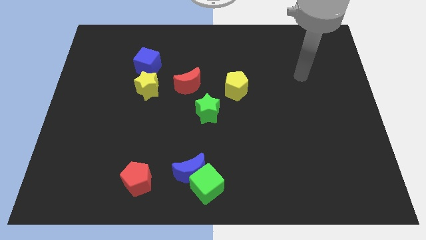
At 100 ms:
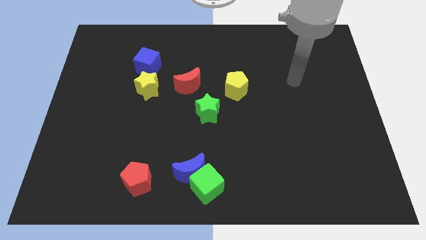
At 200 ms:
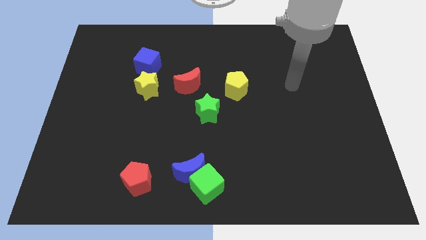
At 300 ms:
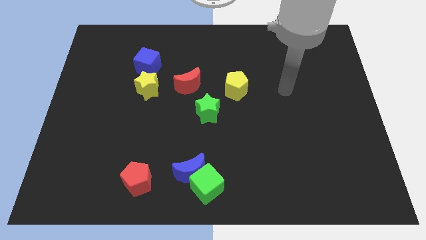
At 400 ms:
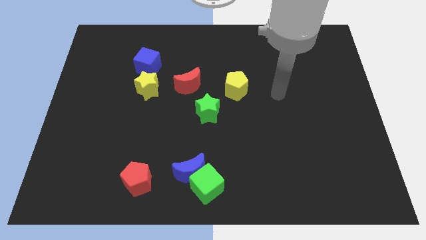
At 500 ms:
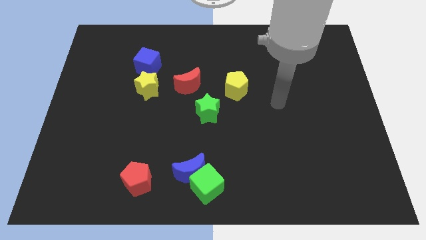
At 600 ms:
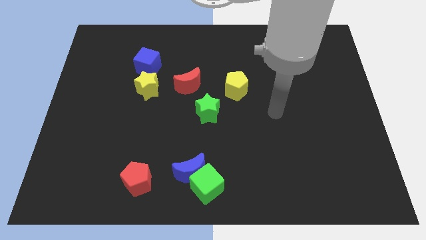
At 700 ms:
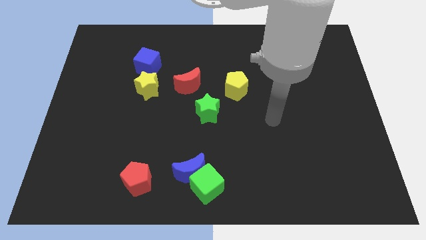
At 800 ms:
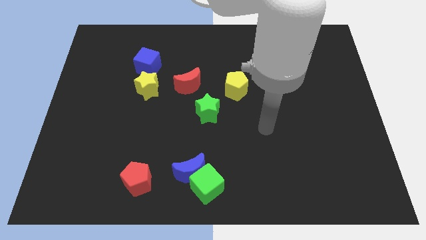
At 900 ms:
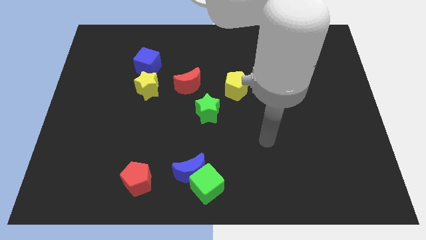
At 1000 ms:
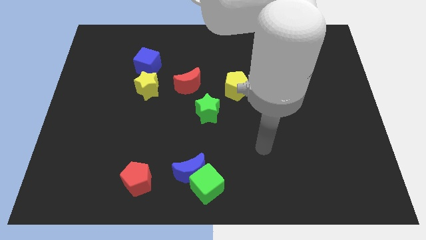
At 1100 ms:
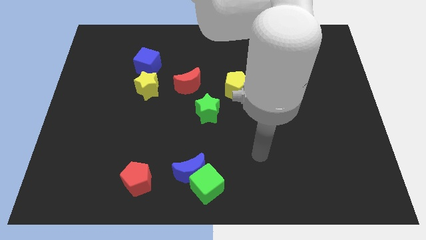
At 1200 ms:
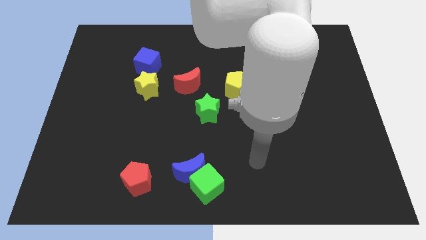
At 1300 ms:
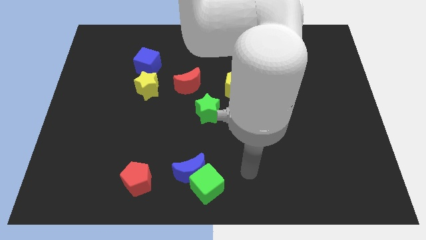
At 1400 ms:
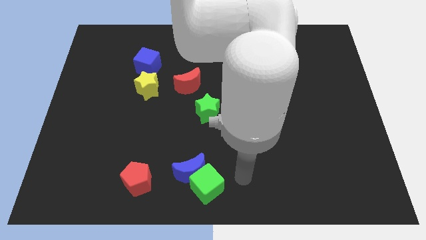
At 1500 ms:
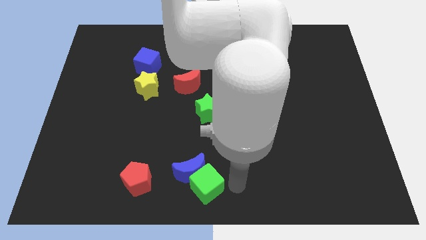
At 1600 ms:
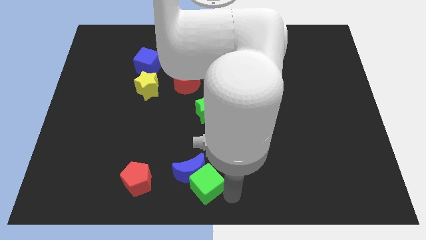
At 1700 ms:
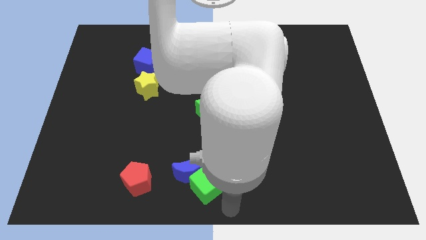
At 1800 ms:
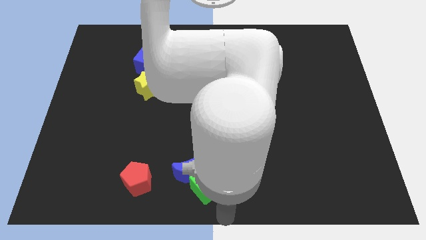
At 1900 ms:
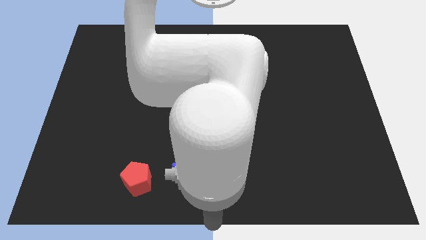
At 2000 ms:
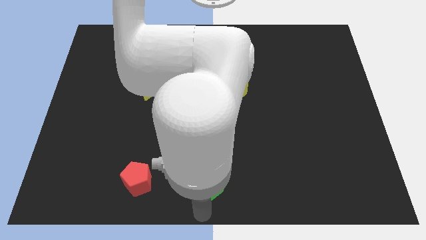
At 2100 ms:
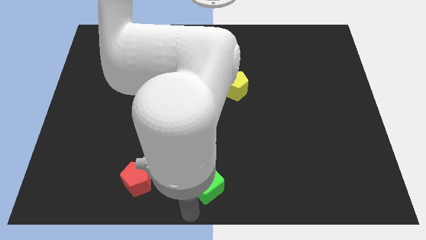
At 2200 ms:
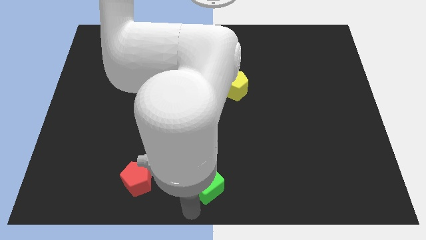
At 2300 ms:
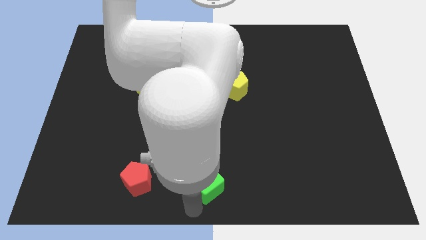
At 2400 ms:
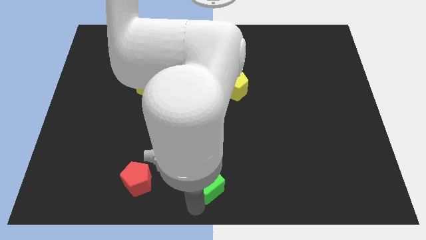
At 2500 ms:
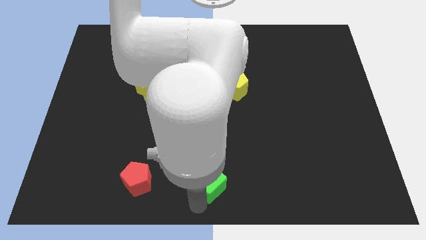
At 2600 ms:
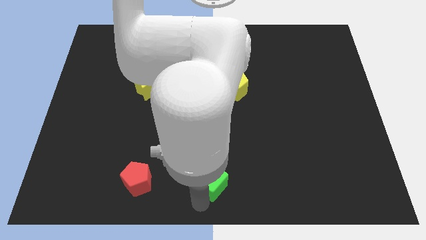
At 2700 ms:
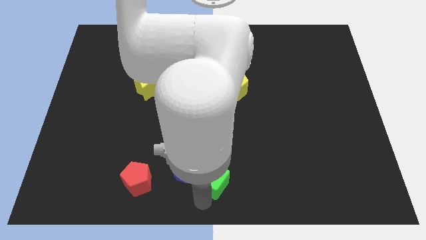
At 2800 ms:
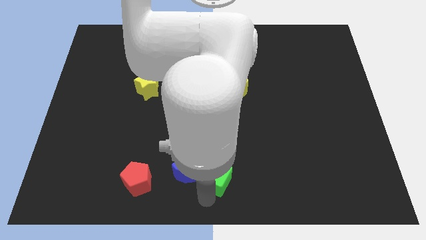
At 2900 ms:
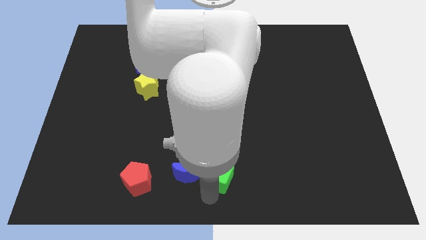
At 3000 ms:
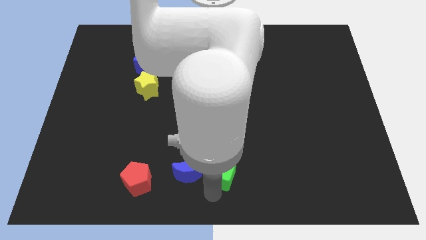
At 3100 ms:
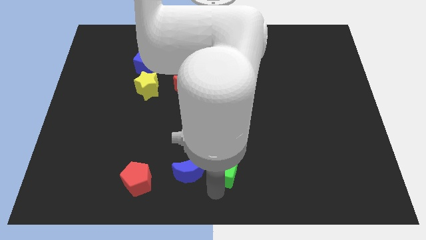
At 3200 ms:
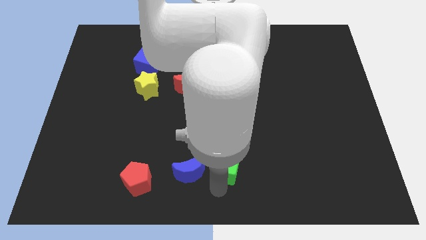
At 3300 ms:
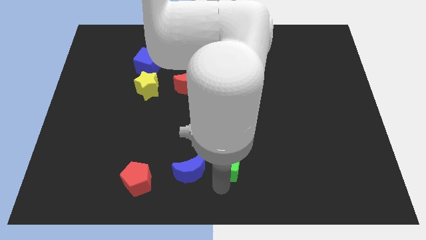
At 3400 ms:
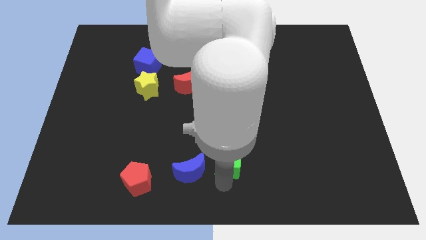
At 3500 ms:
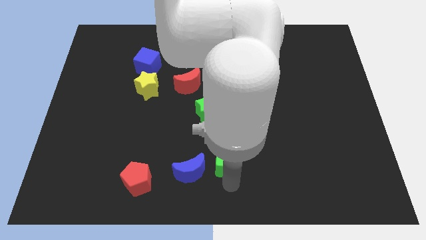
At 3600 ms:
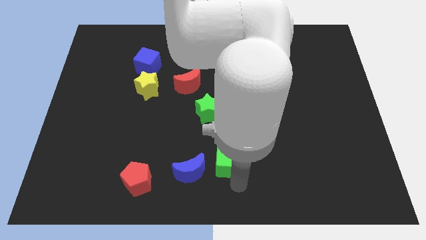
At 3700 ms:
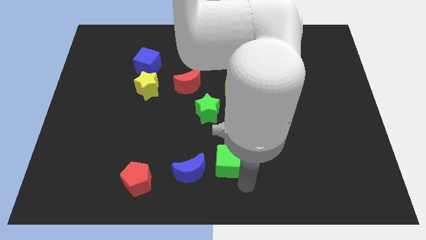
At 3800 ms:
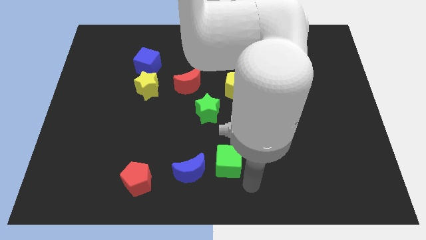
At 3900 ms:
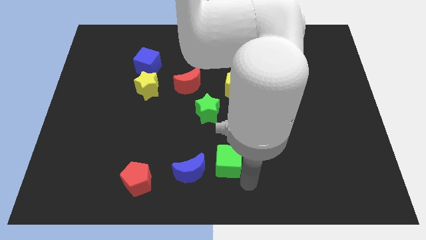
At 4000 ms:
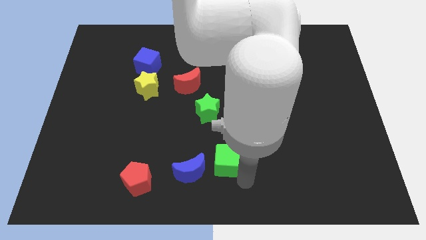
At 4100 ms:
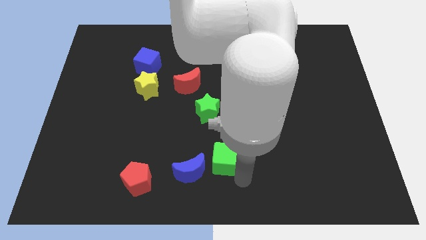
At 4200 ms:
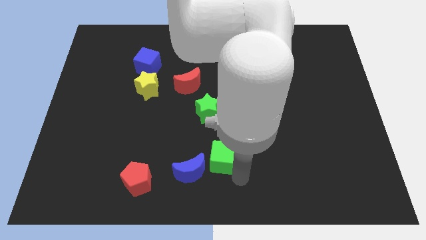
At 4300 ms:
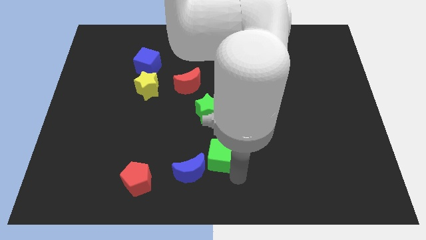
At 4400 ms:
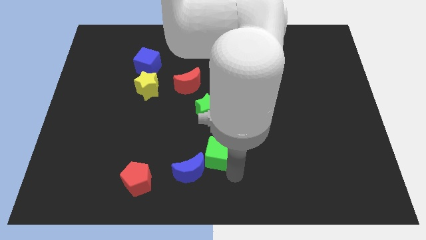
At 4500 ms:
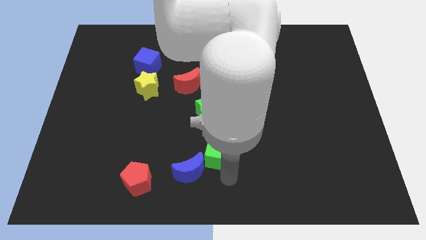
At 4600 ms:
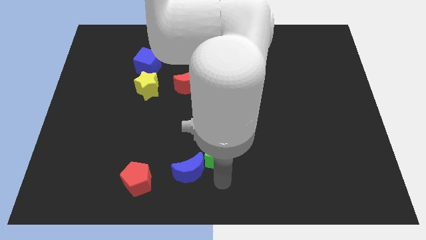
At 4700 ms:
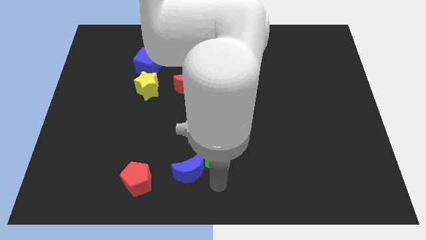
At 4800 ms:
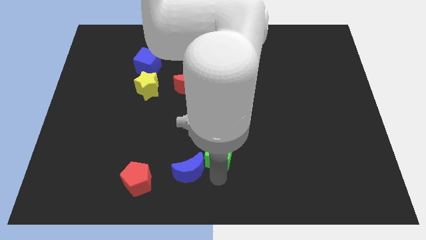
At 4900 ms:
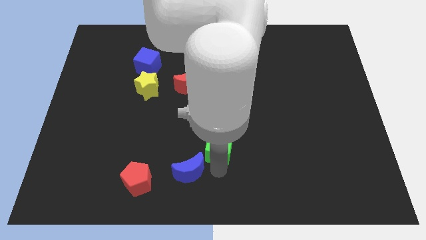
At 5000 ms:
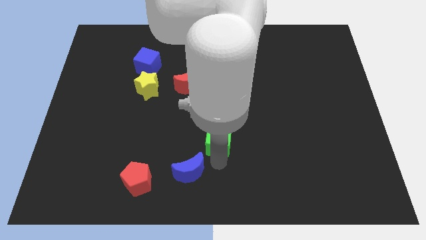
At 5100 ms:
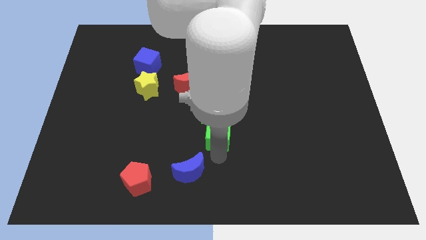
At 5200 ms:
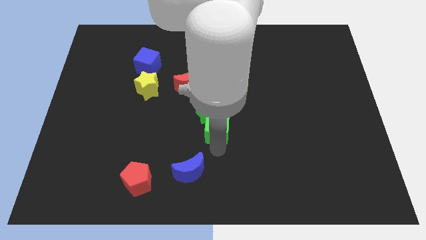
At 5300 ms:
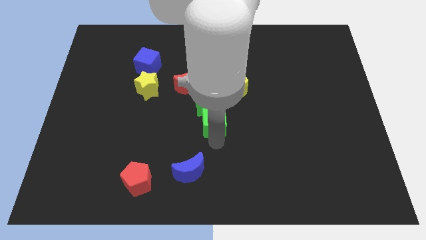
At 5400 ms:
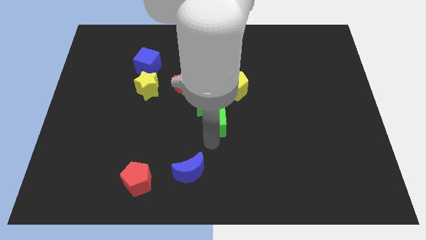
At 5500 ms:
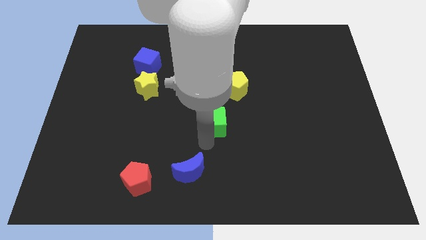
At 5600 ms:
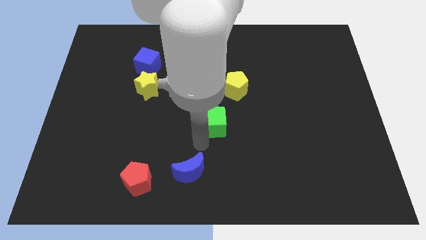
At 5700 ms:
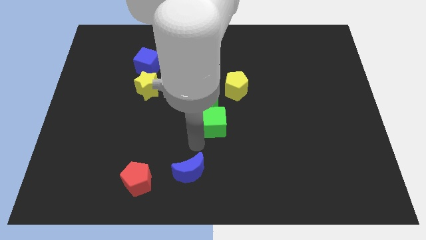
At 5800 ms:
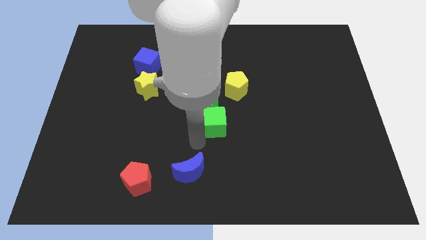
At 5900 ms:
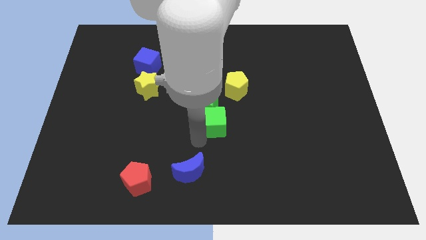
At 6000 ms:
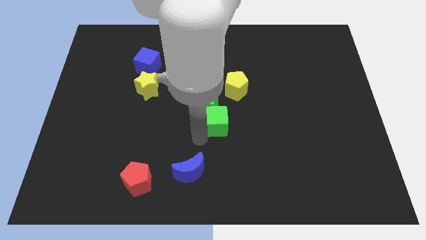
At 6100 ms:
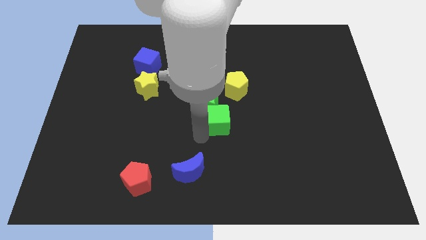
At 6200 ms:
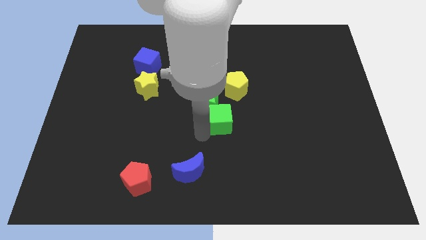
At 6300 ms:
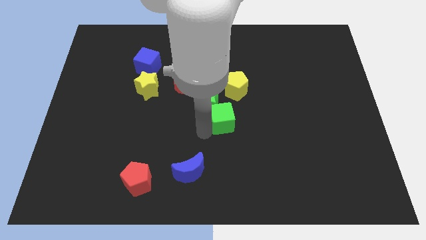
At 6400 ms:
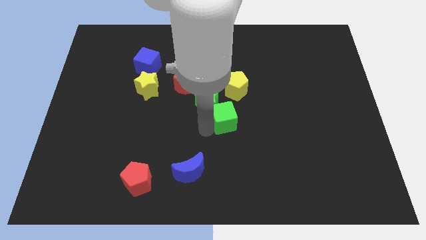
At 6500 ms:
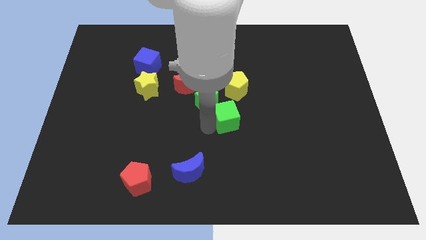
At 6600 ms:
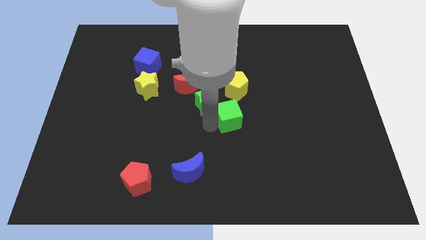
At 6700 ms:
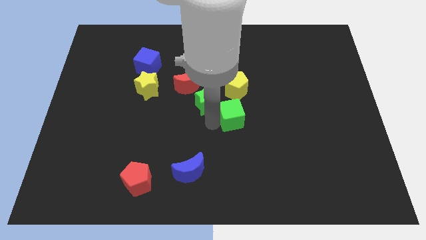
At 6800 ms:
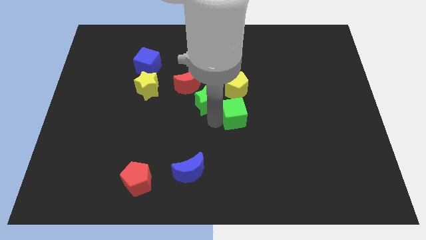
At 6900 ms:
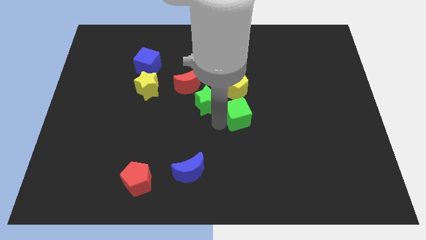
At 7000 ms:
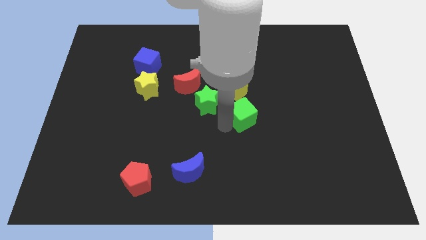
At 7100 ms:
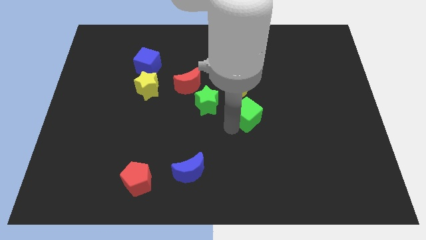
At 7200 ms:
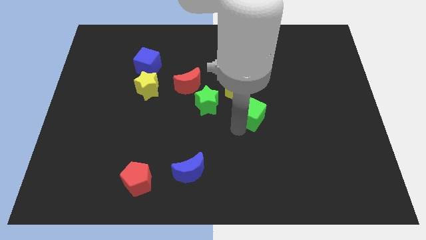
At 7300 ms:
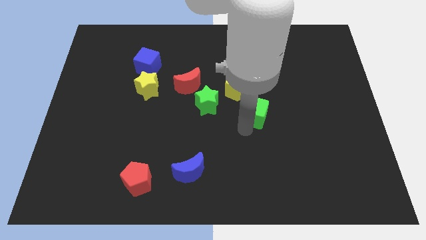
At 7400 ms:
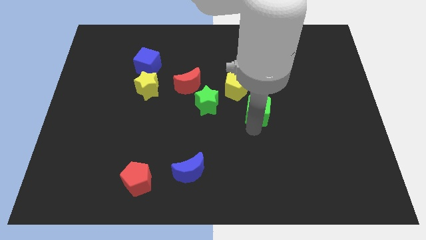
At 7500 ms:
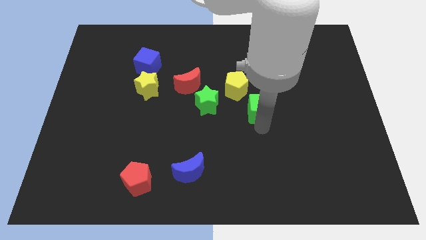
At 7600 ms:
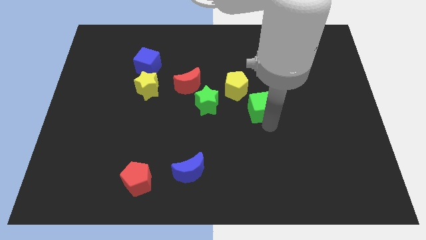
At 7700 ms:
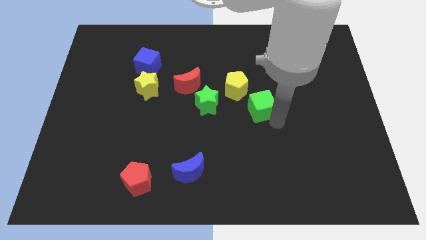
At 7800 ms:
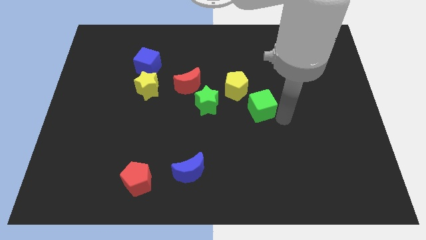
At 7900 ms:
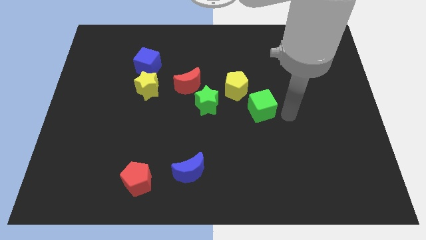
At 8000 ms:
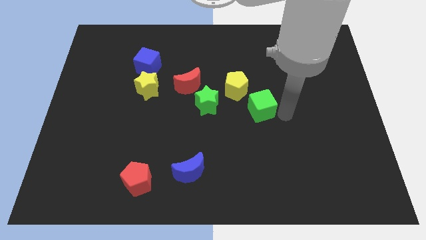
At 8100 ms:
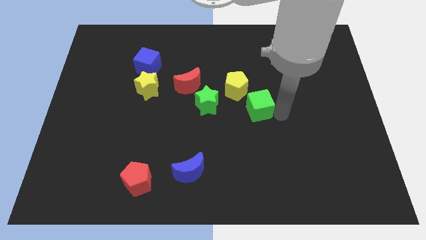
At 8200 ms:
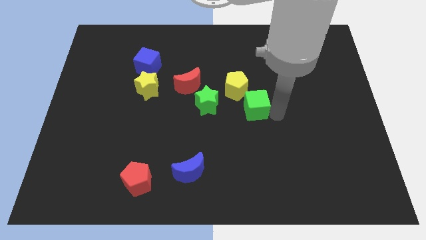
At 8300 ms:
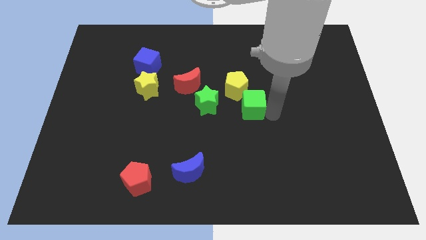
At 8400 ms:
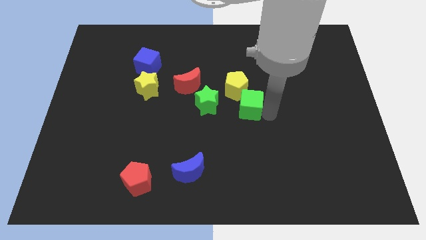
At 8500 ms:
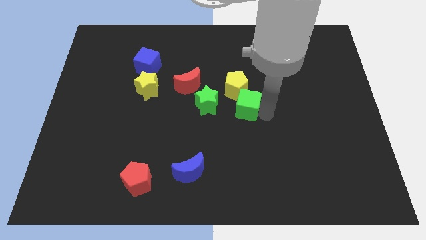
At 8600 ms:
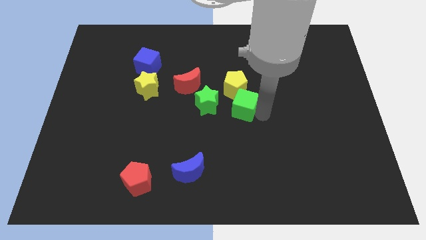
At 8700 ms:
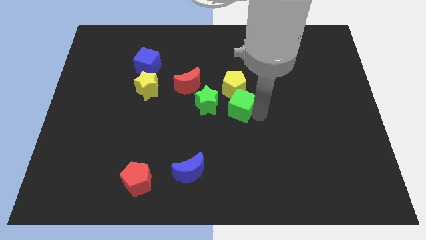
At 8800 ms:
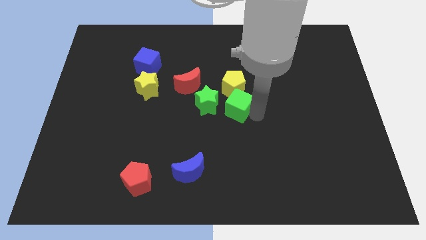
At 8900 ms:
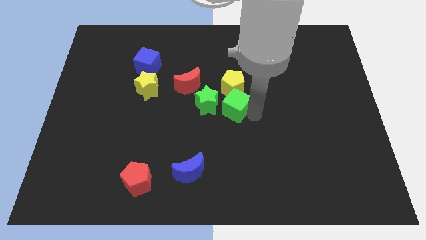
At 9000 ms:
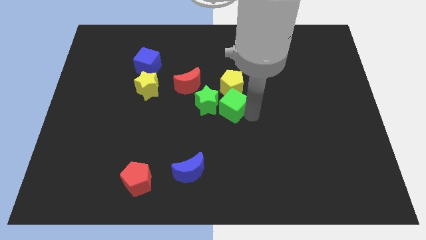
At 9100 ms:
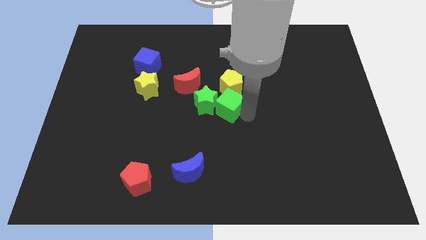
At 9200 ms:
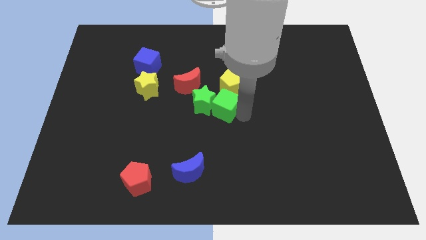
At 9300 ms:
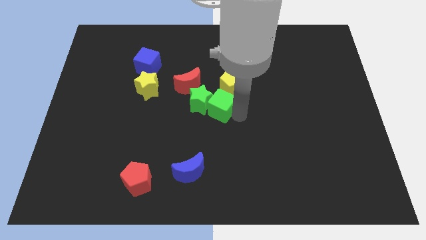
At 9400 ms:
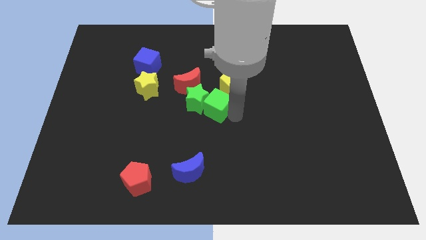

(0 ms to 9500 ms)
push the green cube upwards
